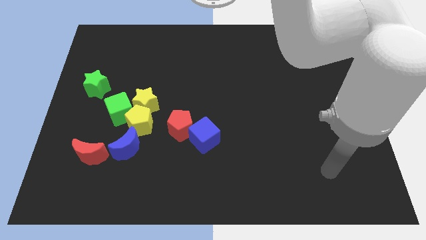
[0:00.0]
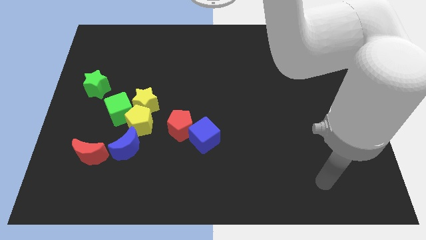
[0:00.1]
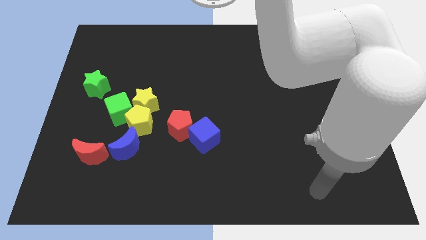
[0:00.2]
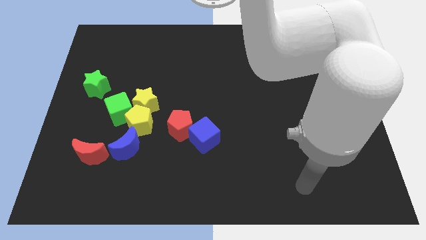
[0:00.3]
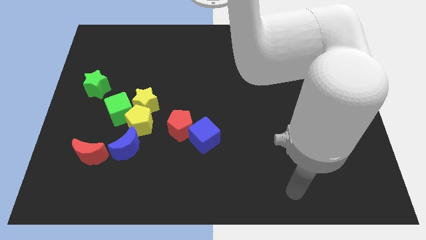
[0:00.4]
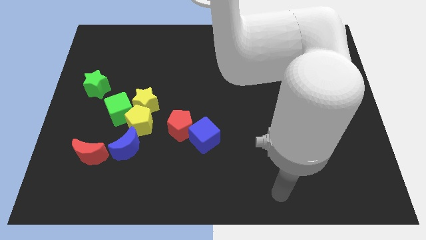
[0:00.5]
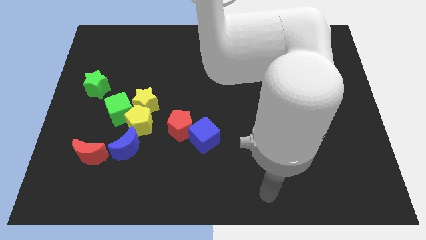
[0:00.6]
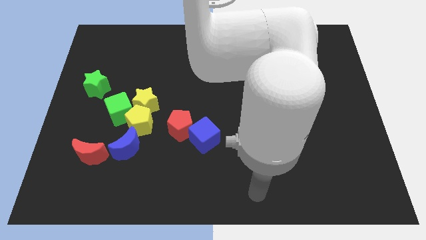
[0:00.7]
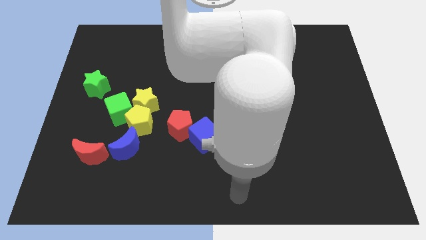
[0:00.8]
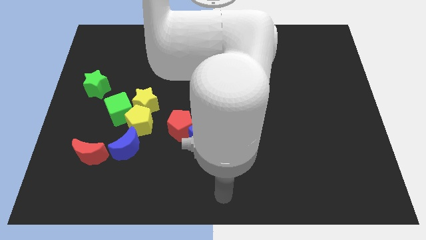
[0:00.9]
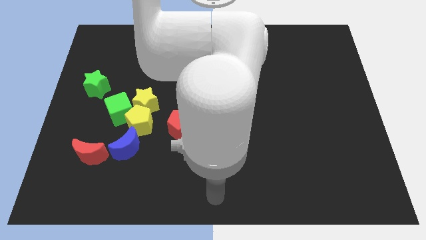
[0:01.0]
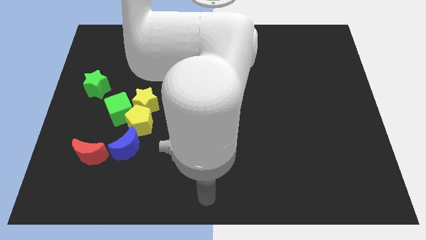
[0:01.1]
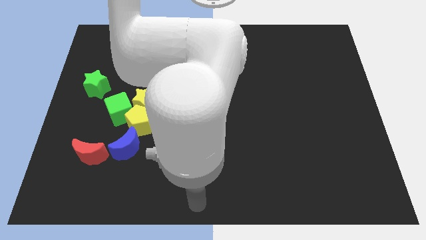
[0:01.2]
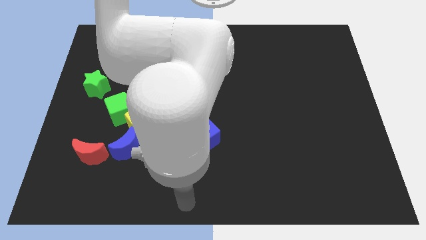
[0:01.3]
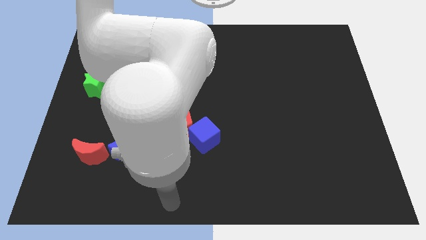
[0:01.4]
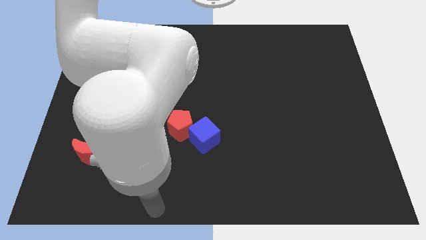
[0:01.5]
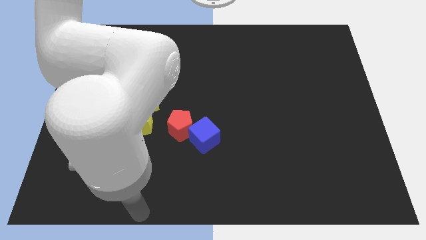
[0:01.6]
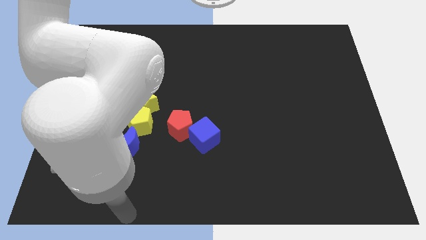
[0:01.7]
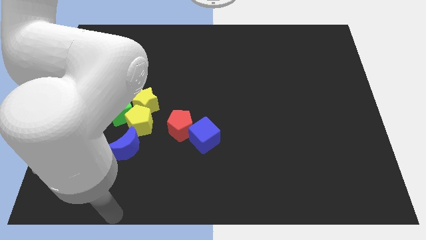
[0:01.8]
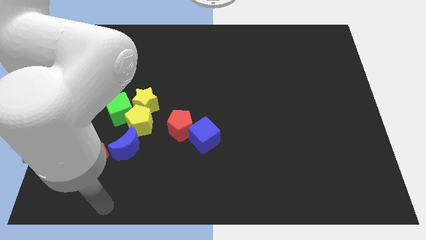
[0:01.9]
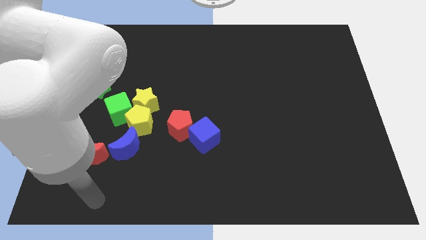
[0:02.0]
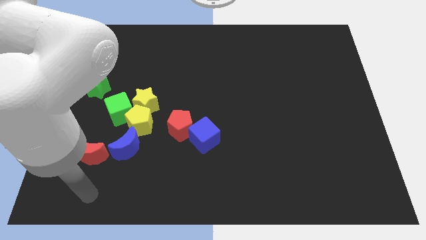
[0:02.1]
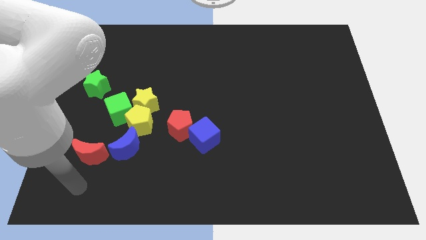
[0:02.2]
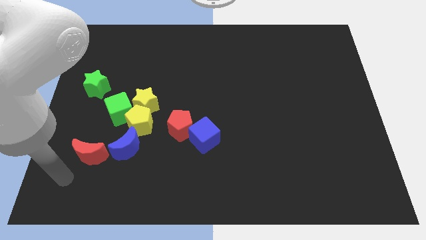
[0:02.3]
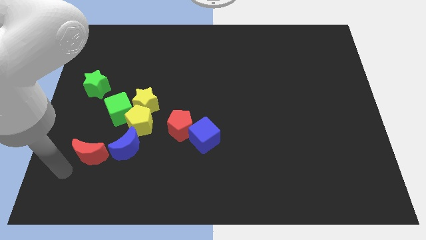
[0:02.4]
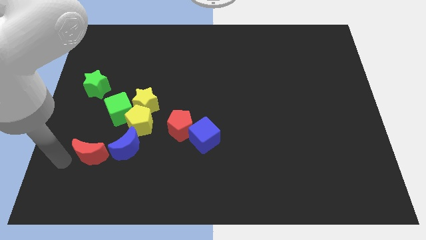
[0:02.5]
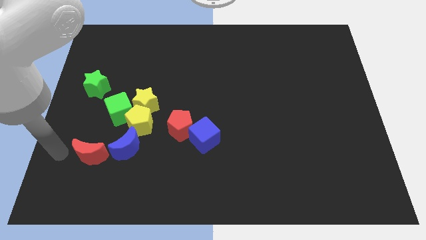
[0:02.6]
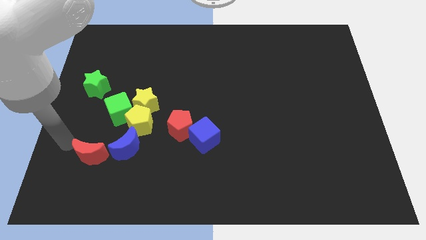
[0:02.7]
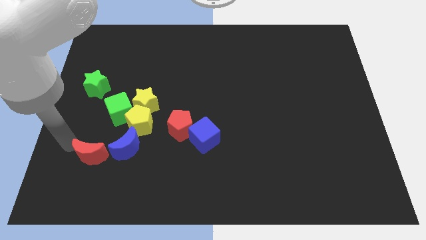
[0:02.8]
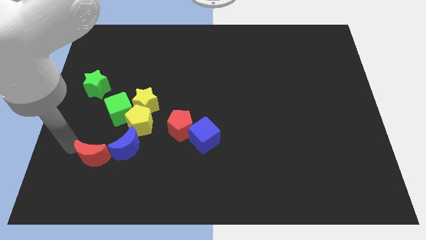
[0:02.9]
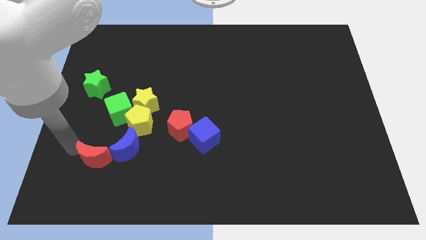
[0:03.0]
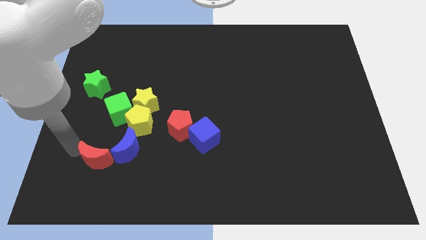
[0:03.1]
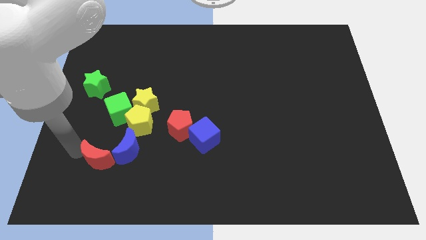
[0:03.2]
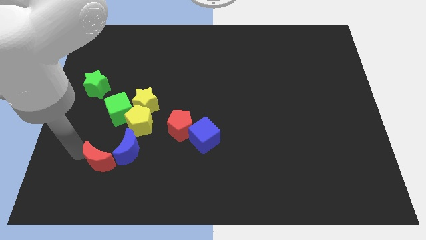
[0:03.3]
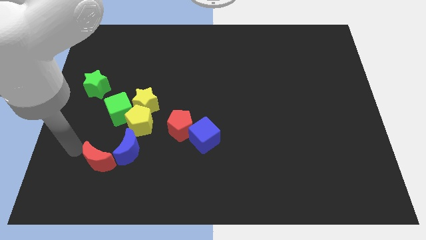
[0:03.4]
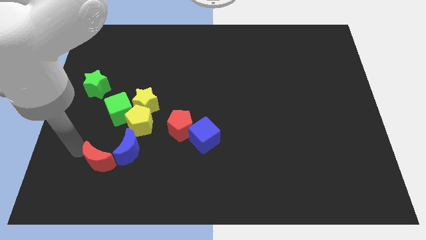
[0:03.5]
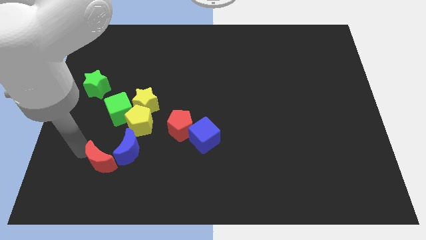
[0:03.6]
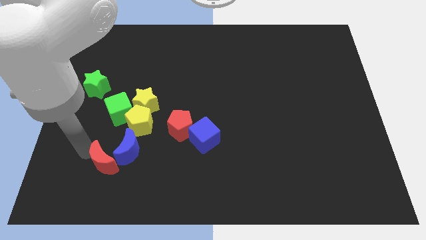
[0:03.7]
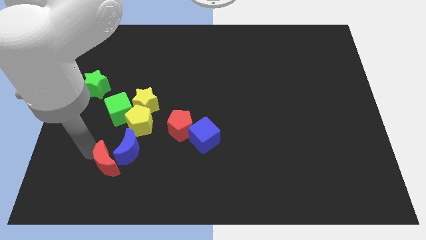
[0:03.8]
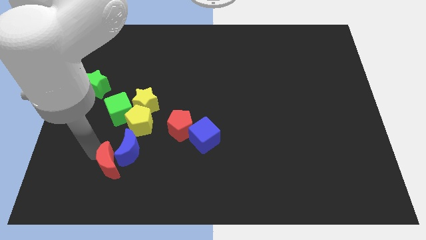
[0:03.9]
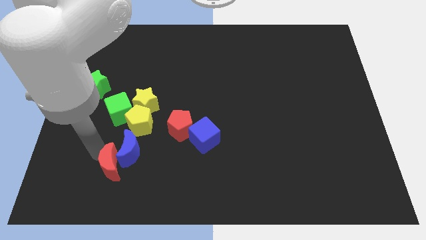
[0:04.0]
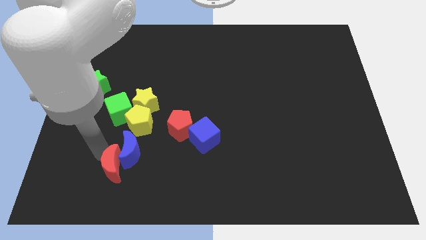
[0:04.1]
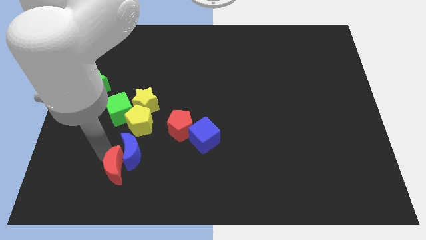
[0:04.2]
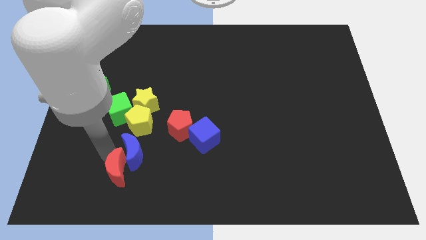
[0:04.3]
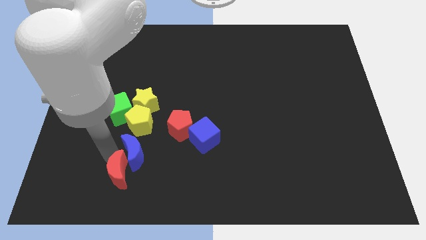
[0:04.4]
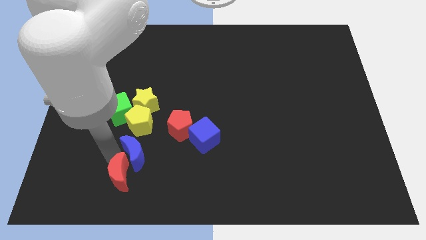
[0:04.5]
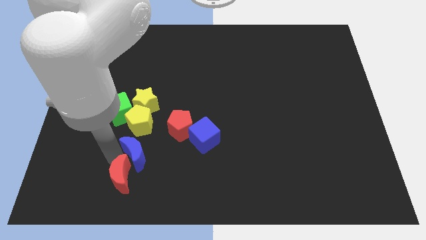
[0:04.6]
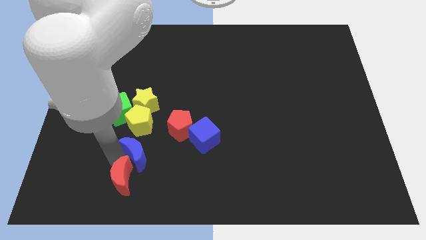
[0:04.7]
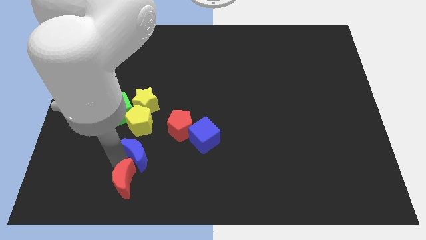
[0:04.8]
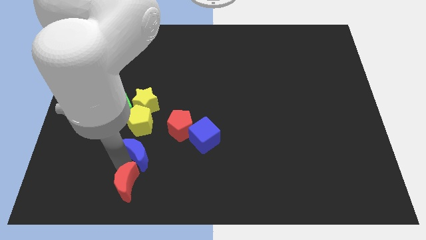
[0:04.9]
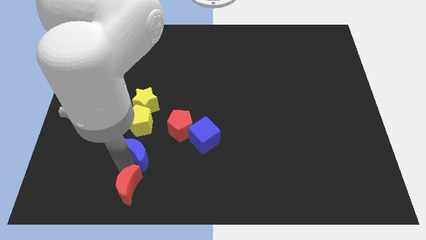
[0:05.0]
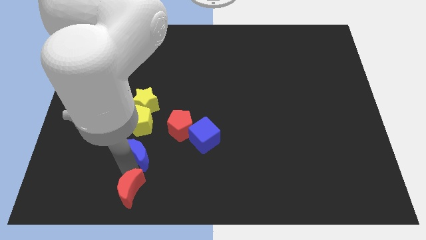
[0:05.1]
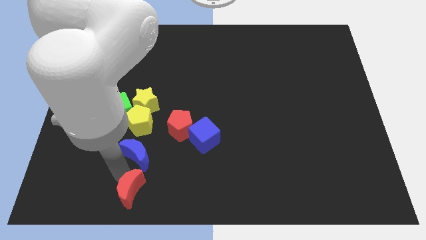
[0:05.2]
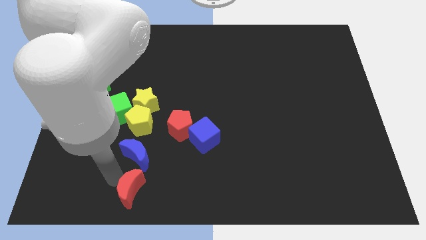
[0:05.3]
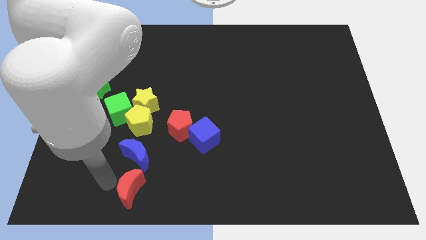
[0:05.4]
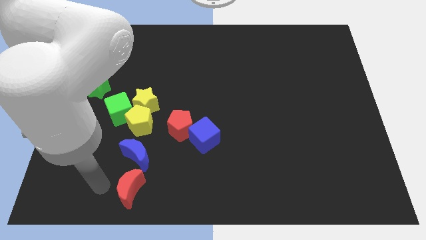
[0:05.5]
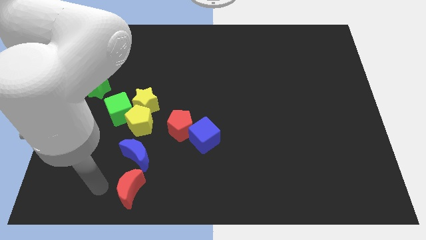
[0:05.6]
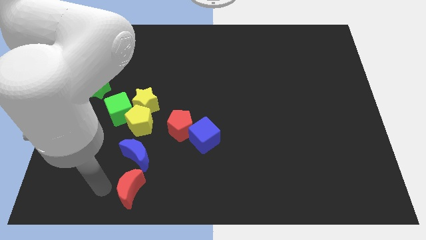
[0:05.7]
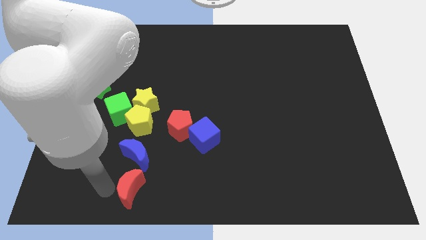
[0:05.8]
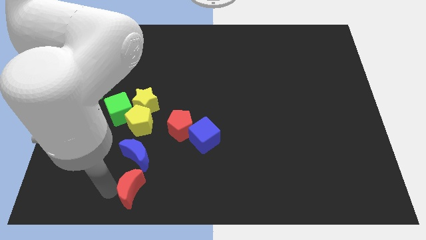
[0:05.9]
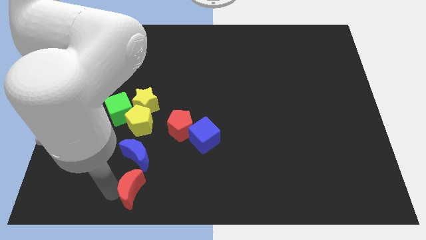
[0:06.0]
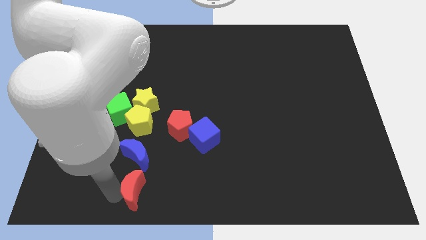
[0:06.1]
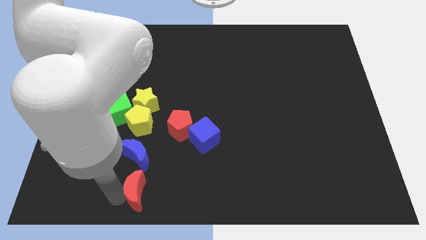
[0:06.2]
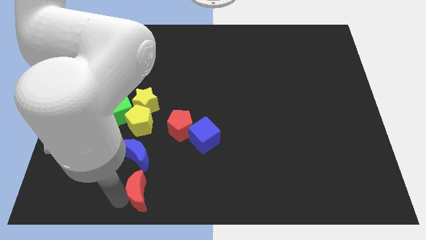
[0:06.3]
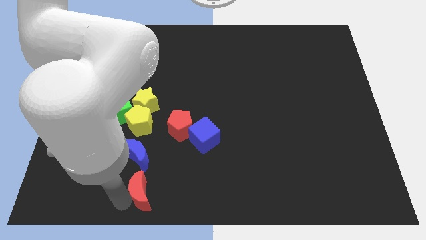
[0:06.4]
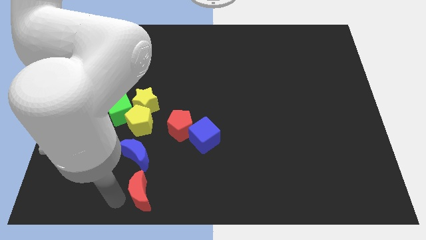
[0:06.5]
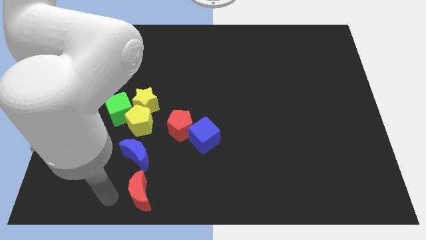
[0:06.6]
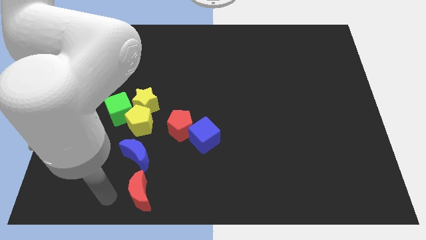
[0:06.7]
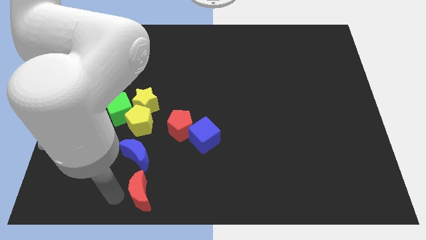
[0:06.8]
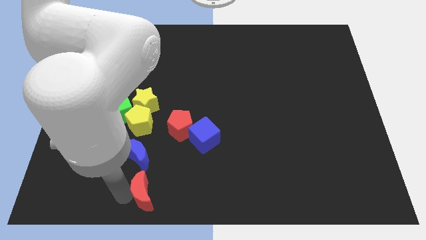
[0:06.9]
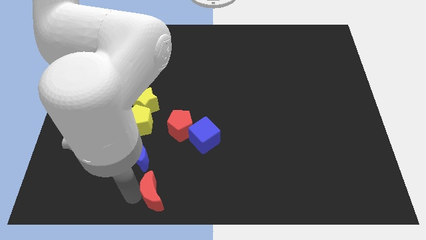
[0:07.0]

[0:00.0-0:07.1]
put the red moon to the bottom
